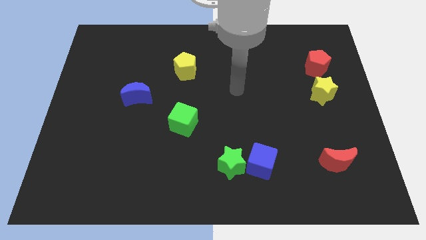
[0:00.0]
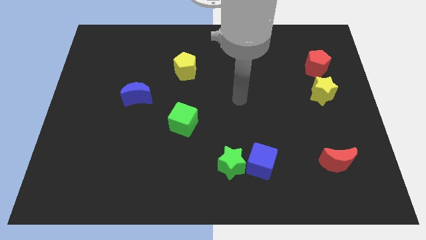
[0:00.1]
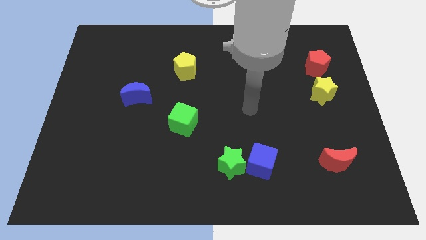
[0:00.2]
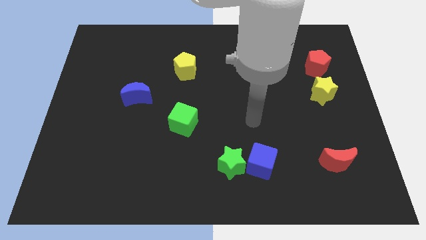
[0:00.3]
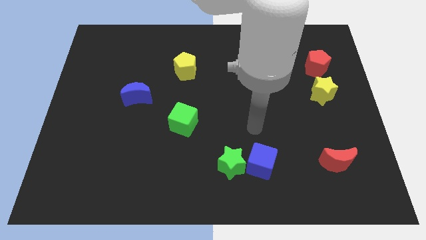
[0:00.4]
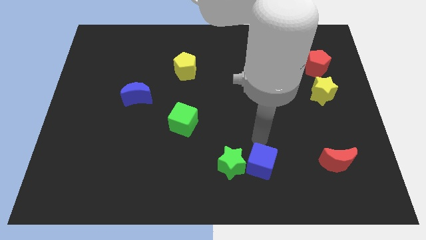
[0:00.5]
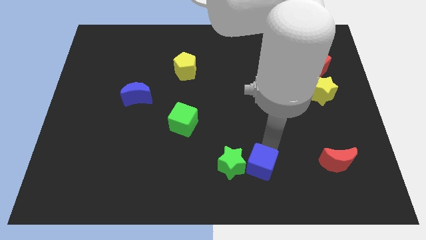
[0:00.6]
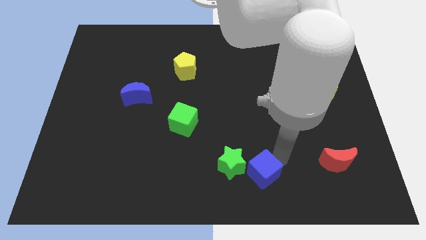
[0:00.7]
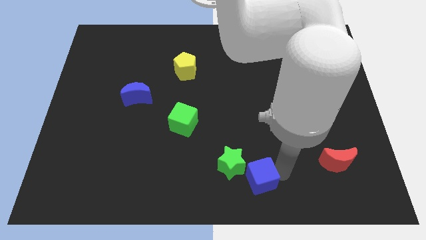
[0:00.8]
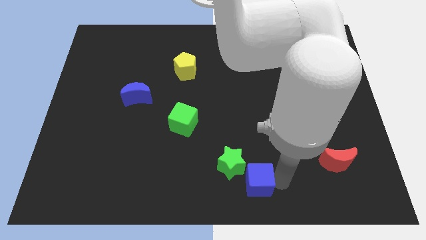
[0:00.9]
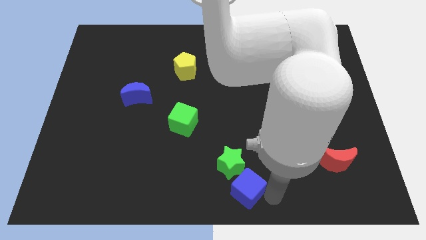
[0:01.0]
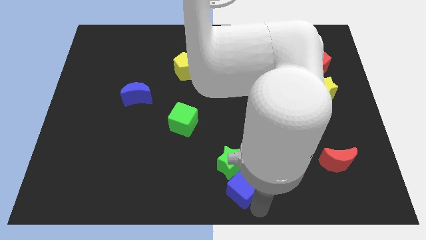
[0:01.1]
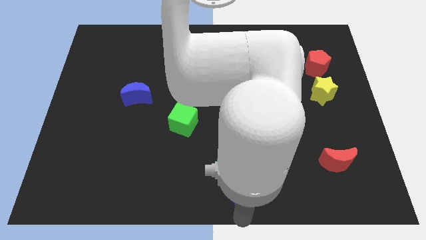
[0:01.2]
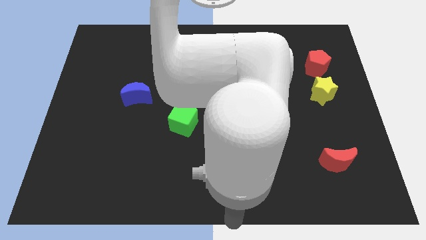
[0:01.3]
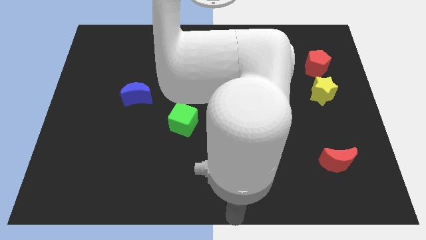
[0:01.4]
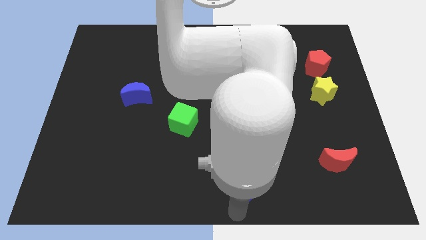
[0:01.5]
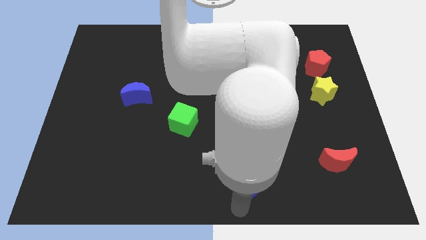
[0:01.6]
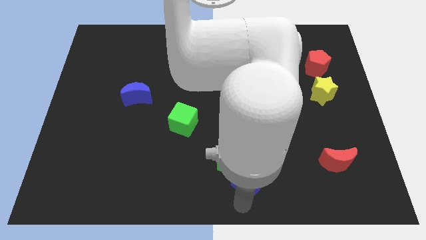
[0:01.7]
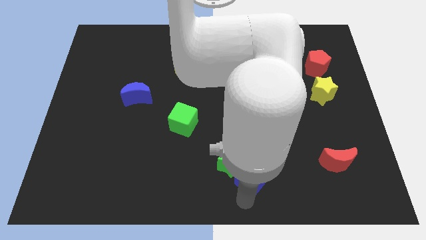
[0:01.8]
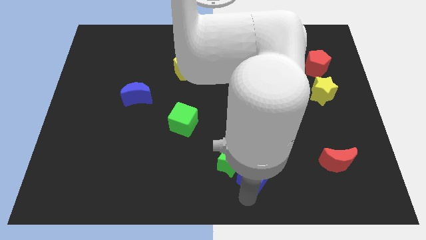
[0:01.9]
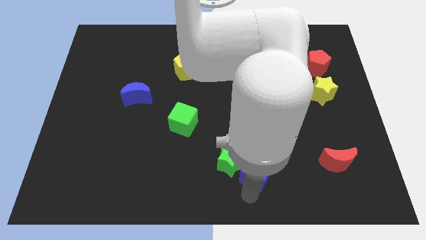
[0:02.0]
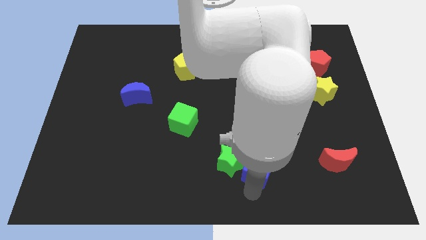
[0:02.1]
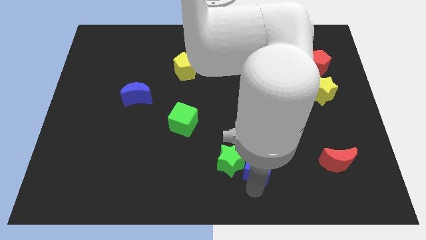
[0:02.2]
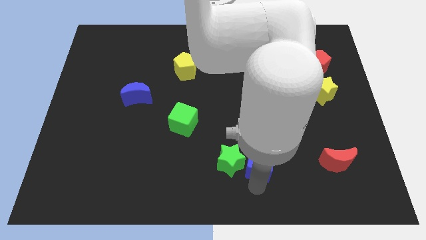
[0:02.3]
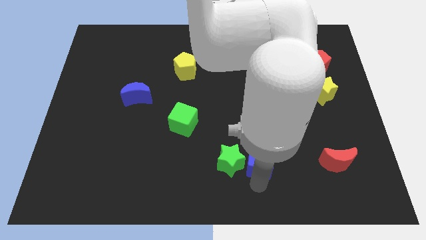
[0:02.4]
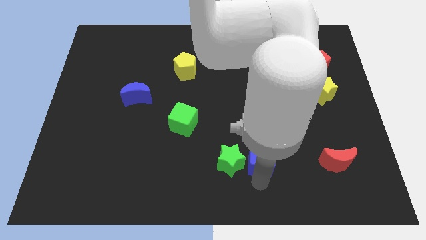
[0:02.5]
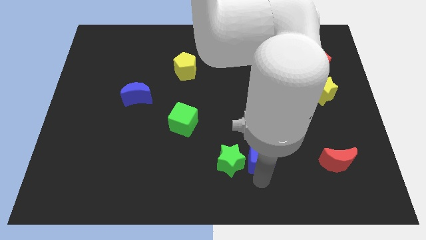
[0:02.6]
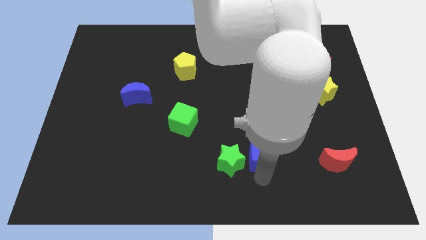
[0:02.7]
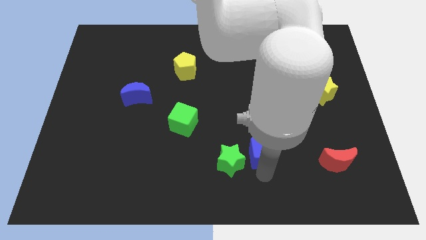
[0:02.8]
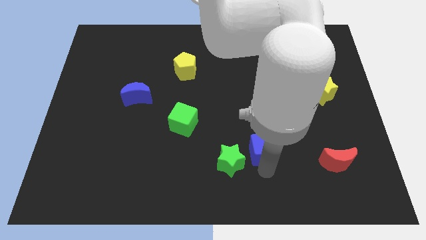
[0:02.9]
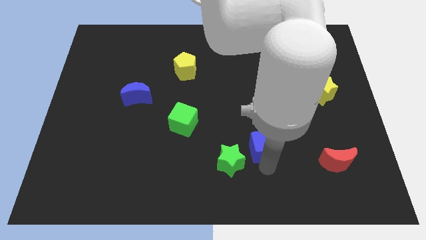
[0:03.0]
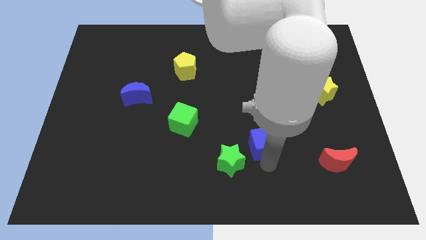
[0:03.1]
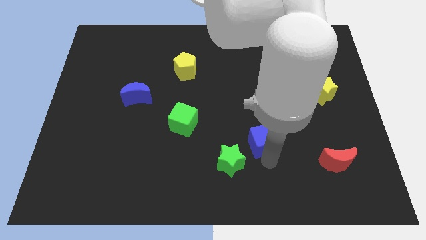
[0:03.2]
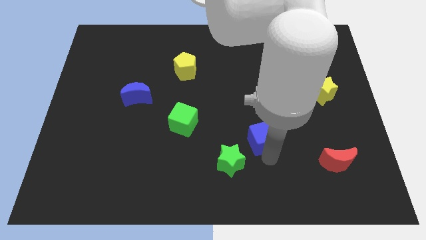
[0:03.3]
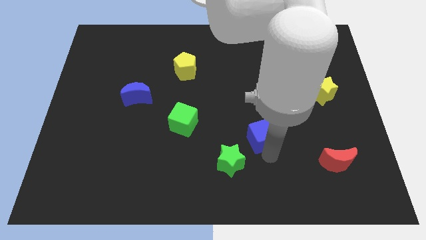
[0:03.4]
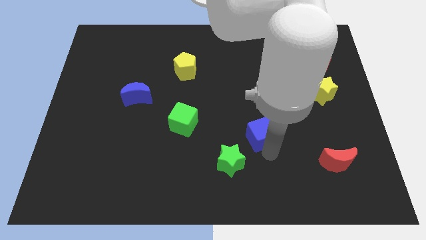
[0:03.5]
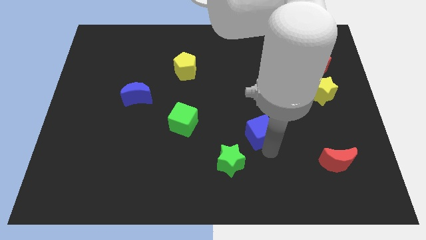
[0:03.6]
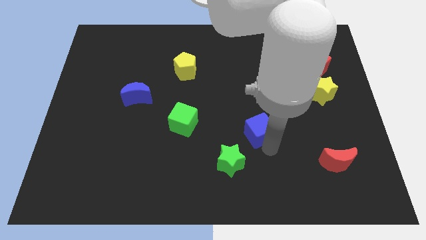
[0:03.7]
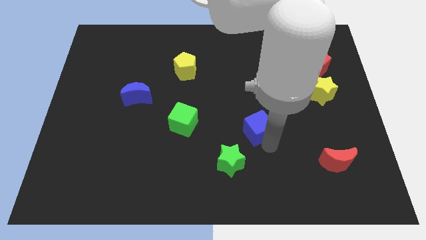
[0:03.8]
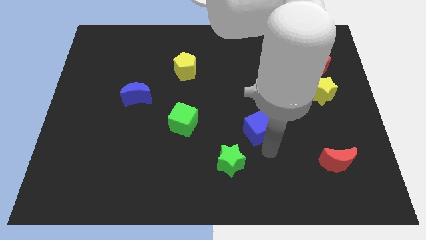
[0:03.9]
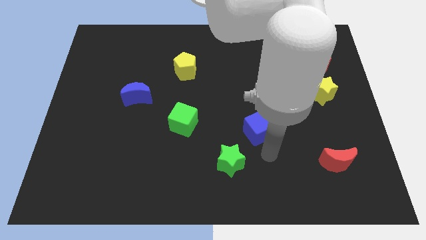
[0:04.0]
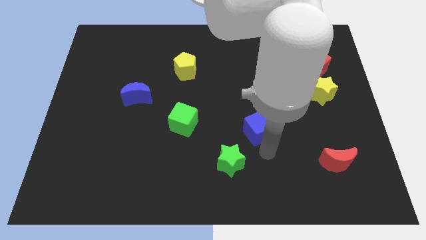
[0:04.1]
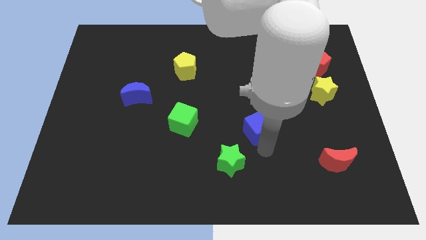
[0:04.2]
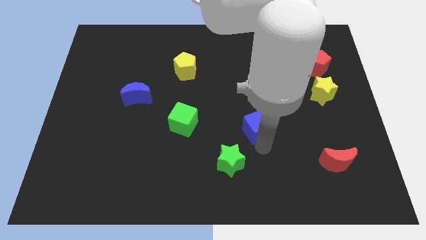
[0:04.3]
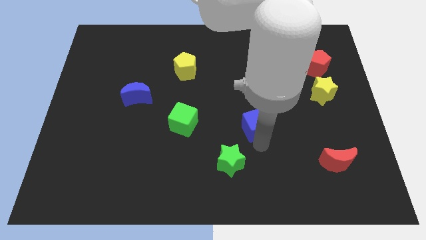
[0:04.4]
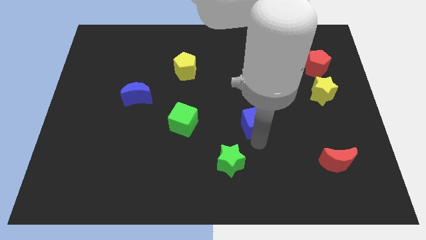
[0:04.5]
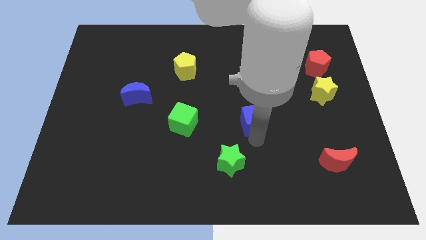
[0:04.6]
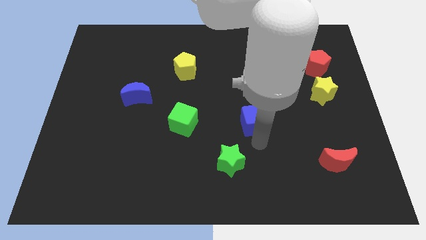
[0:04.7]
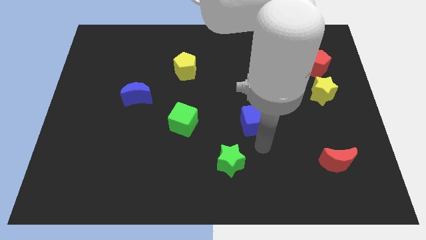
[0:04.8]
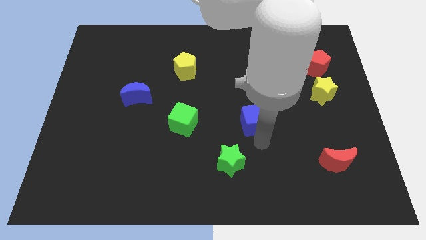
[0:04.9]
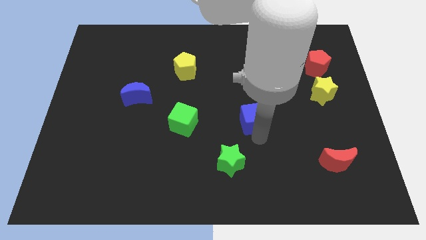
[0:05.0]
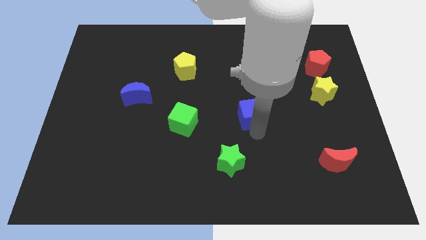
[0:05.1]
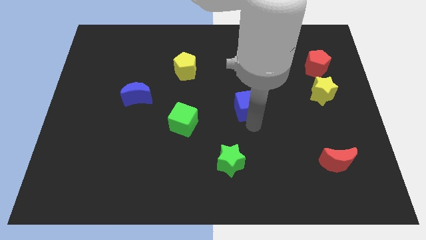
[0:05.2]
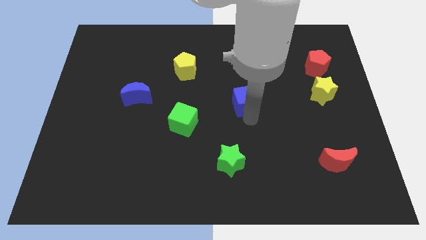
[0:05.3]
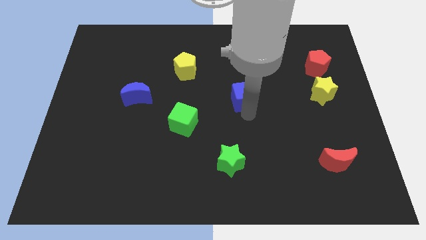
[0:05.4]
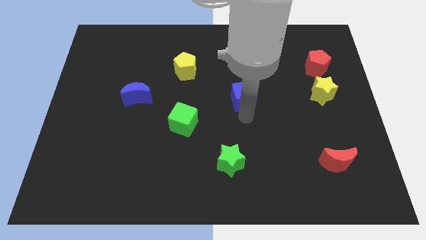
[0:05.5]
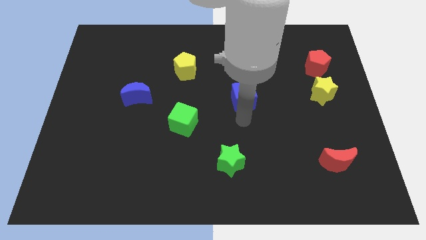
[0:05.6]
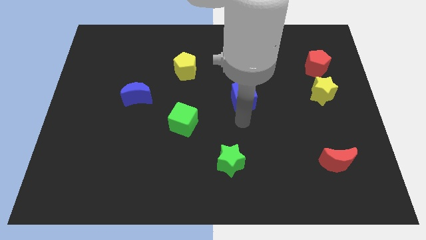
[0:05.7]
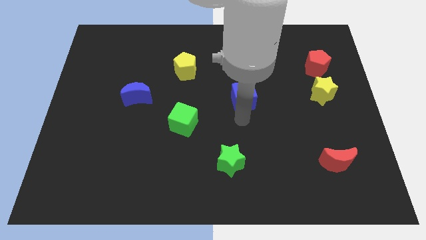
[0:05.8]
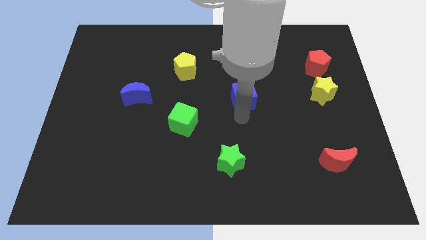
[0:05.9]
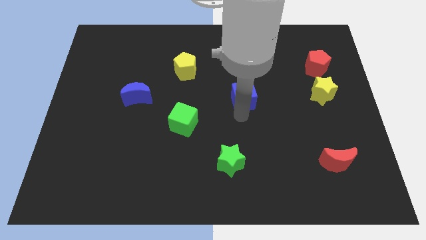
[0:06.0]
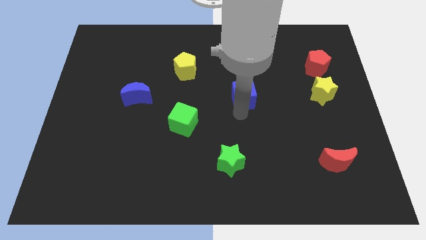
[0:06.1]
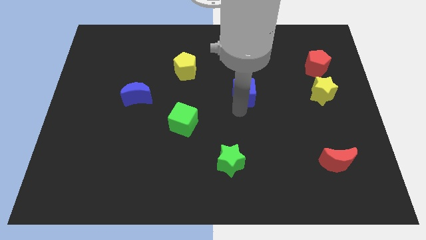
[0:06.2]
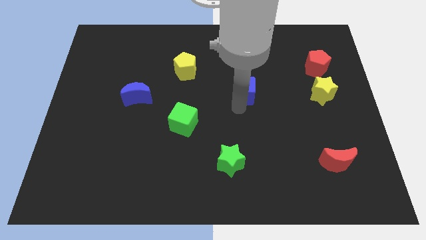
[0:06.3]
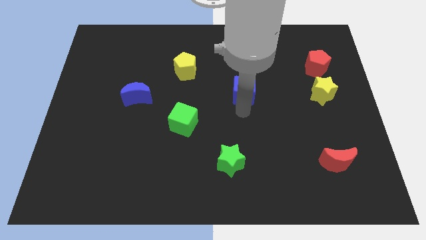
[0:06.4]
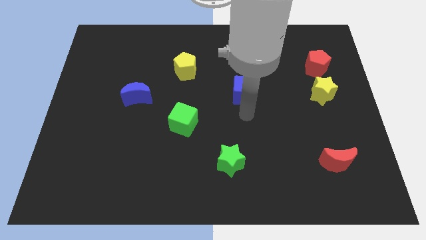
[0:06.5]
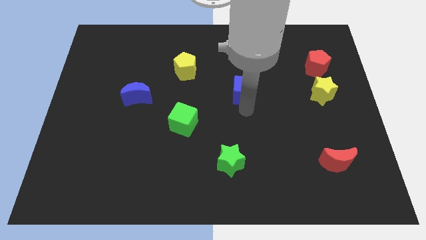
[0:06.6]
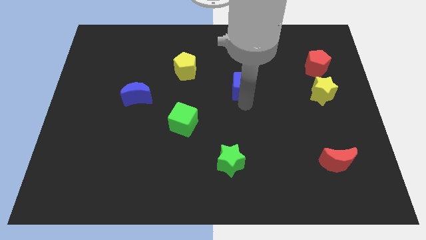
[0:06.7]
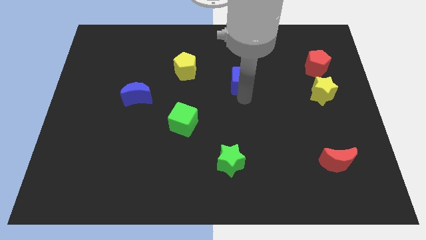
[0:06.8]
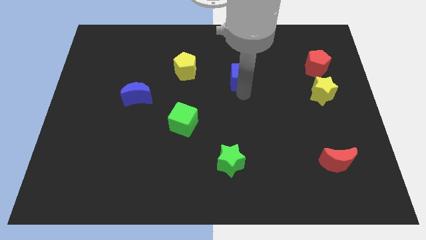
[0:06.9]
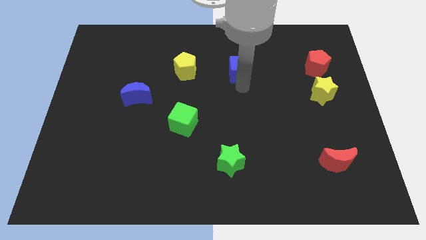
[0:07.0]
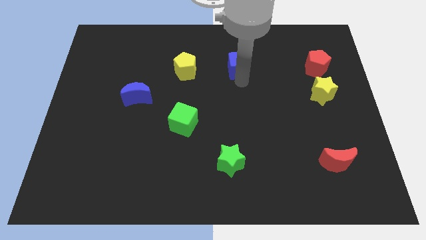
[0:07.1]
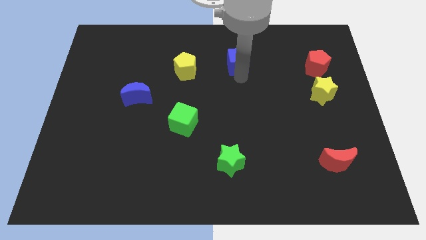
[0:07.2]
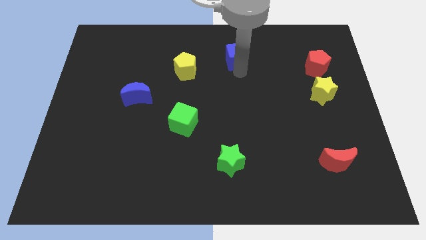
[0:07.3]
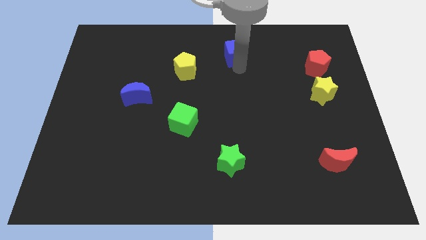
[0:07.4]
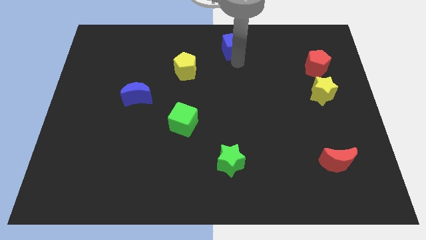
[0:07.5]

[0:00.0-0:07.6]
move the blue cube to the top side
